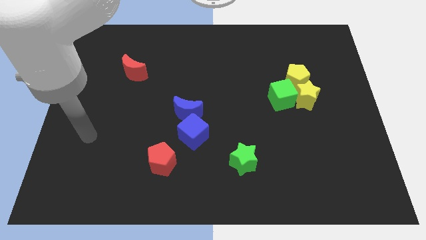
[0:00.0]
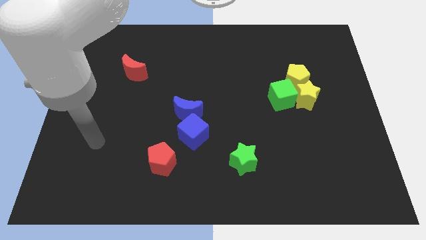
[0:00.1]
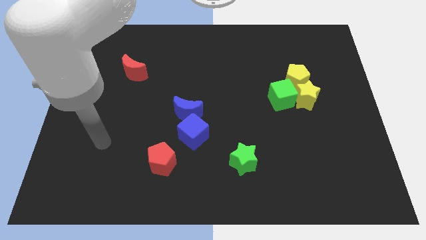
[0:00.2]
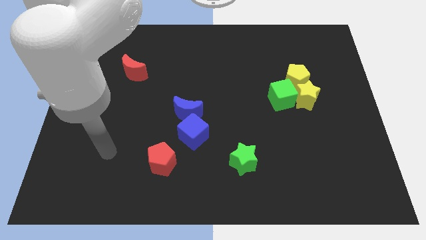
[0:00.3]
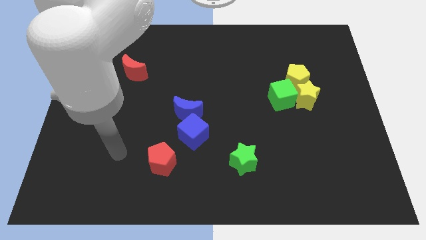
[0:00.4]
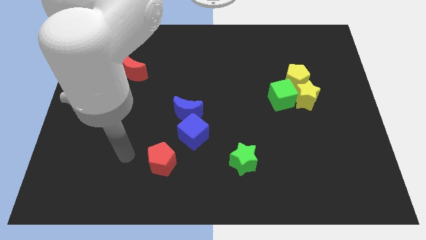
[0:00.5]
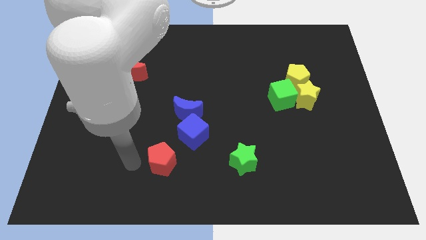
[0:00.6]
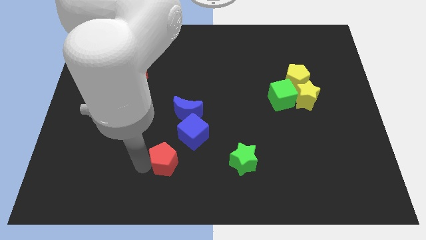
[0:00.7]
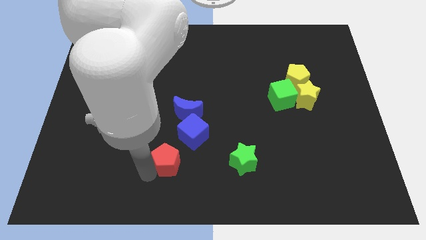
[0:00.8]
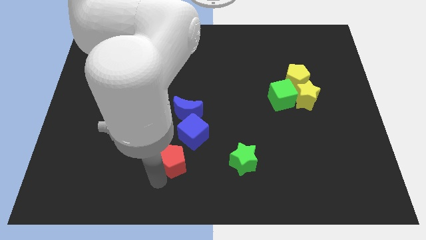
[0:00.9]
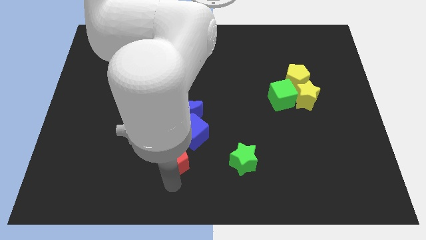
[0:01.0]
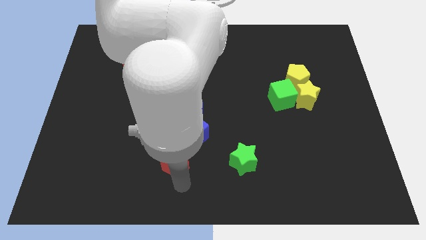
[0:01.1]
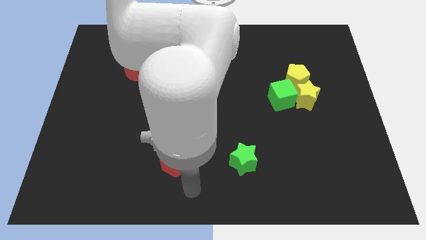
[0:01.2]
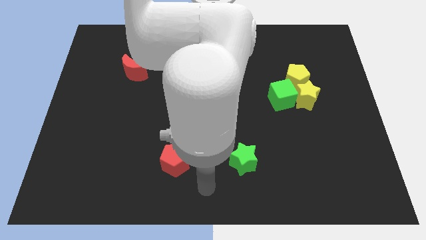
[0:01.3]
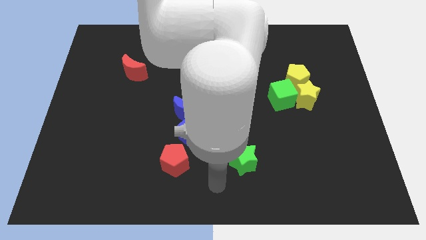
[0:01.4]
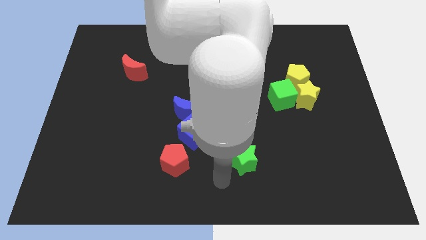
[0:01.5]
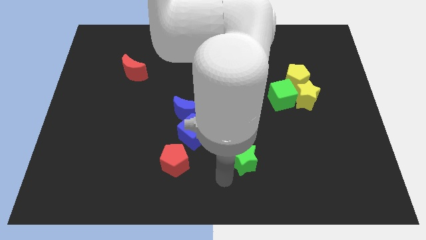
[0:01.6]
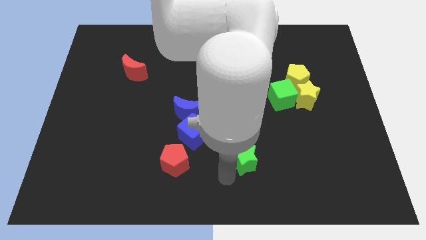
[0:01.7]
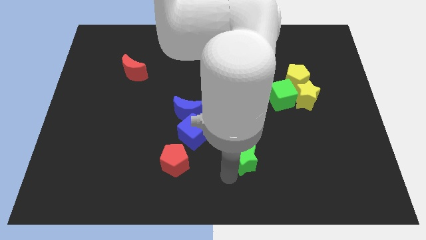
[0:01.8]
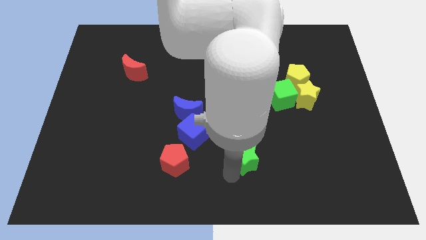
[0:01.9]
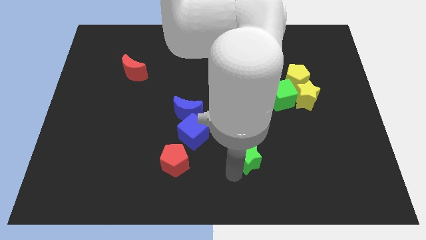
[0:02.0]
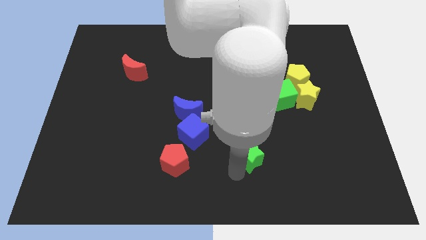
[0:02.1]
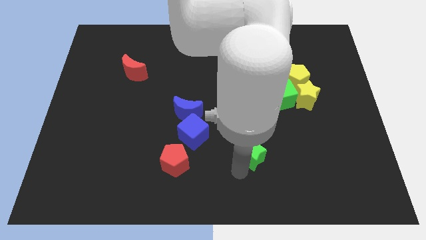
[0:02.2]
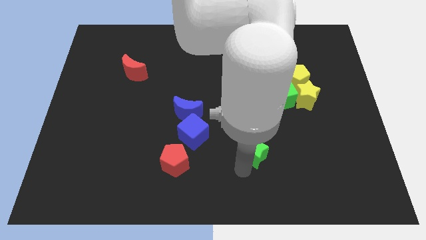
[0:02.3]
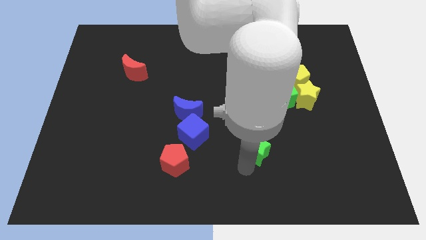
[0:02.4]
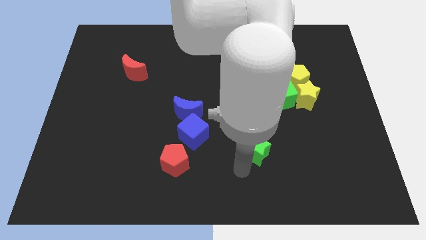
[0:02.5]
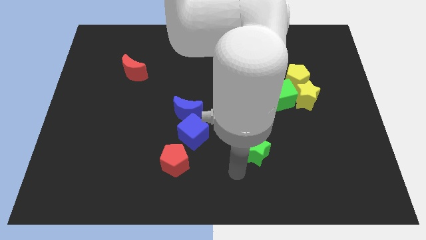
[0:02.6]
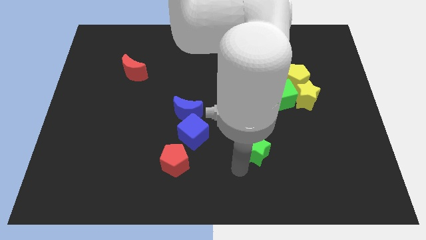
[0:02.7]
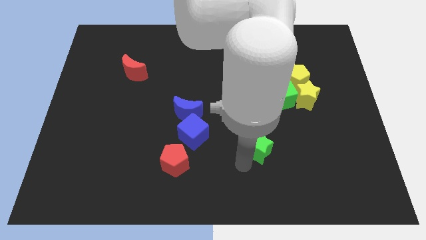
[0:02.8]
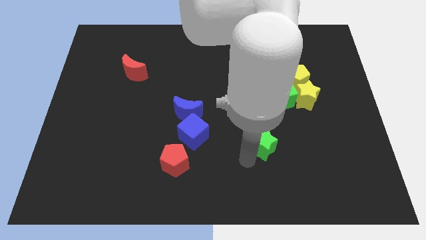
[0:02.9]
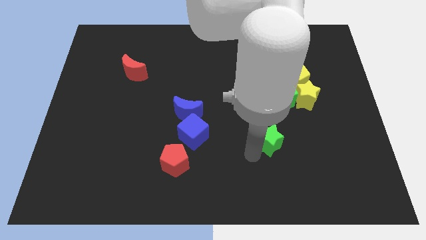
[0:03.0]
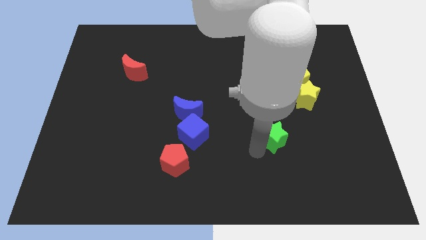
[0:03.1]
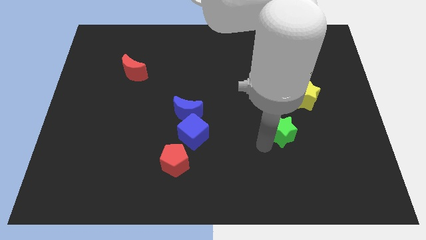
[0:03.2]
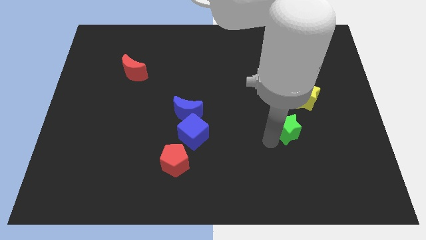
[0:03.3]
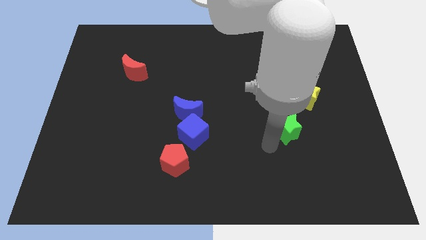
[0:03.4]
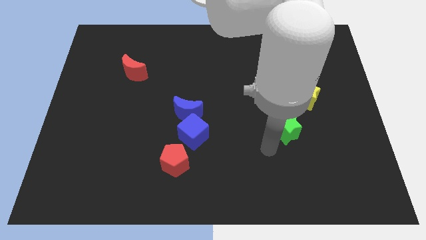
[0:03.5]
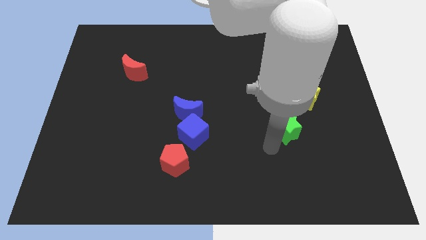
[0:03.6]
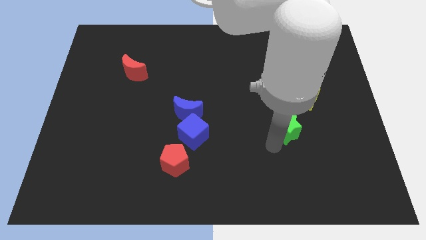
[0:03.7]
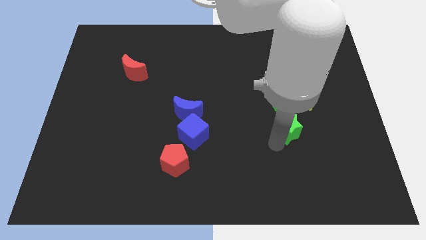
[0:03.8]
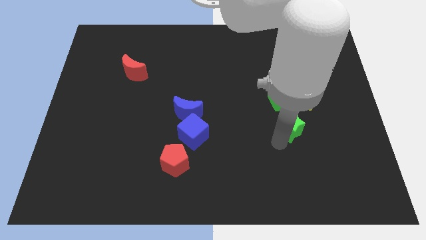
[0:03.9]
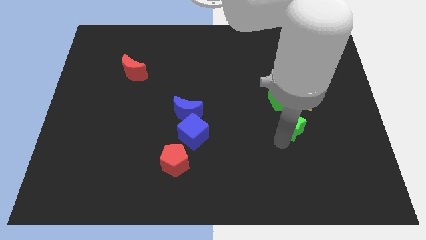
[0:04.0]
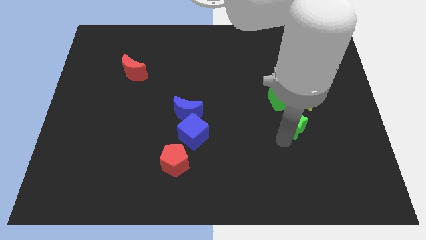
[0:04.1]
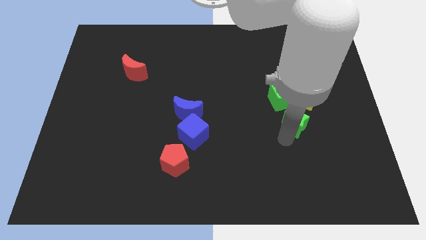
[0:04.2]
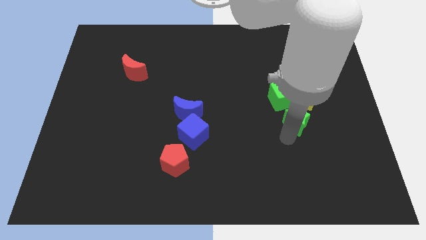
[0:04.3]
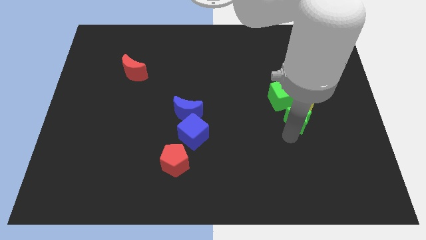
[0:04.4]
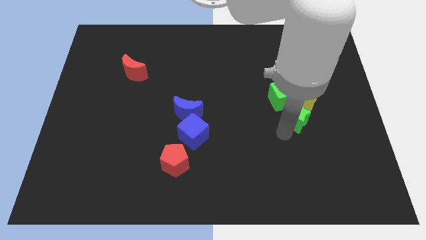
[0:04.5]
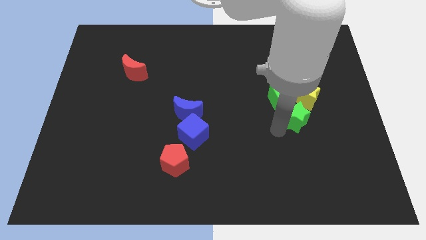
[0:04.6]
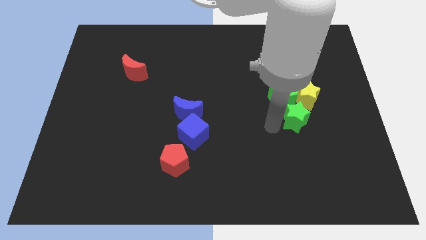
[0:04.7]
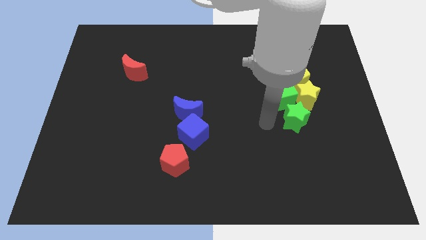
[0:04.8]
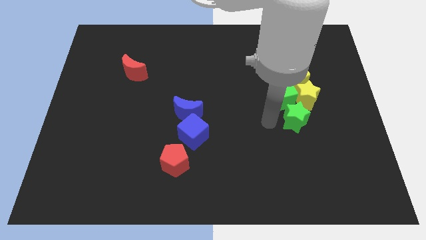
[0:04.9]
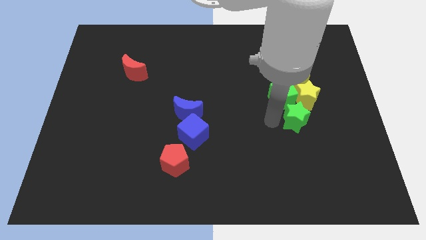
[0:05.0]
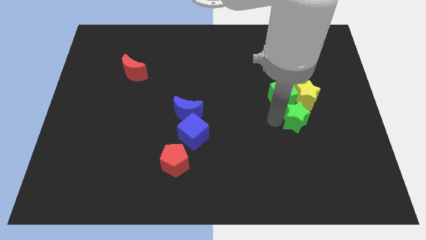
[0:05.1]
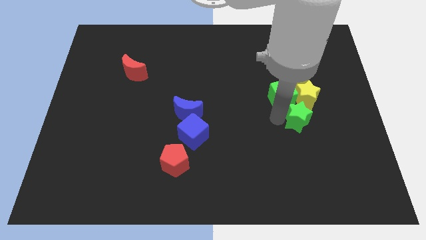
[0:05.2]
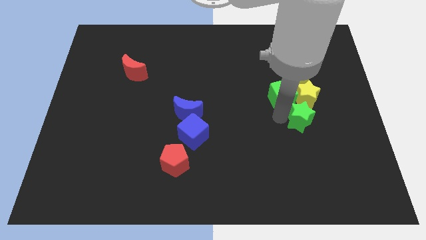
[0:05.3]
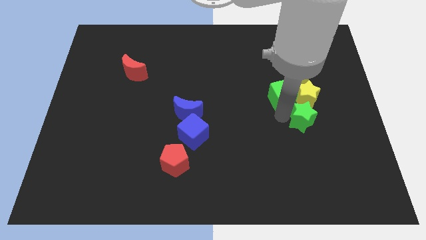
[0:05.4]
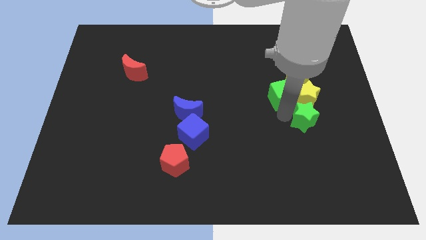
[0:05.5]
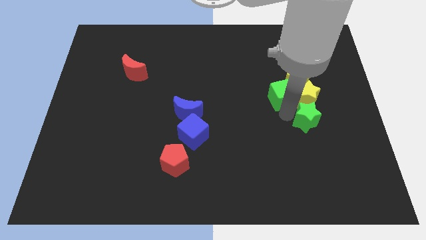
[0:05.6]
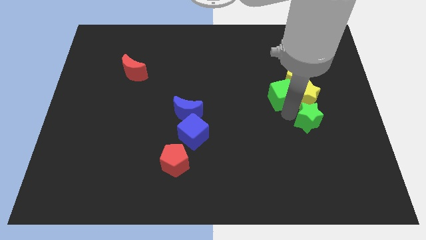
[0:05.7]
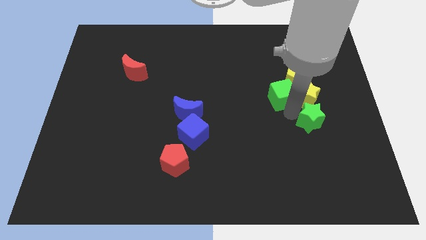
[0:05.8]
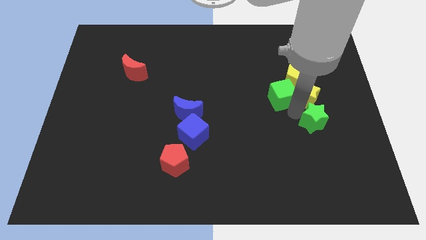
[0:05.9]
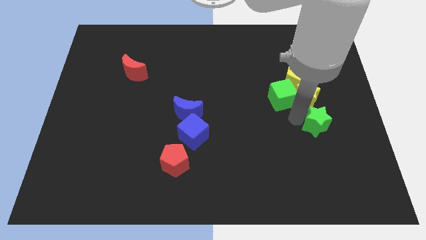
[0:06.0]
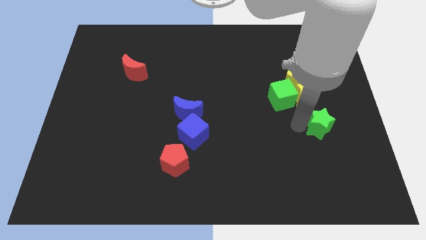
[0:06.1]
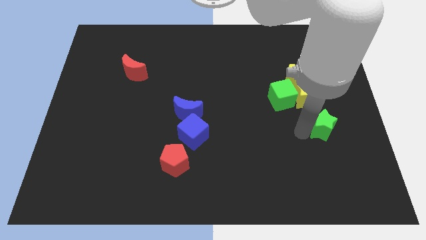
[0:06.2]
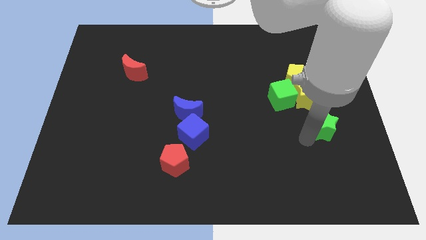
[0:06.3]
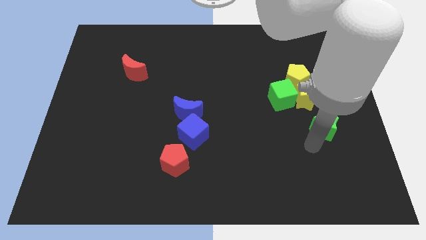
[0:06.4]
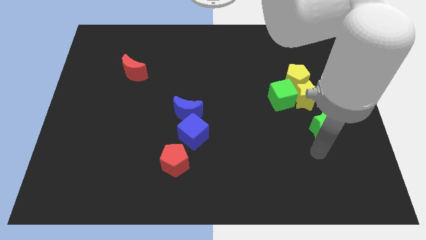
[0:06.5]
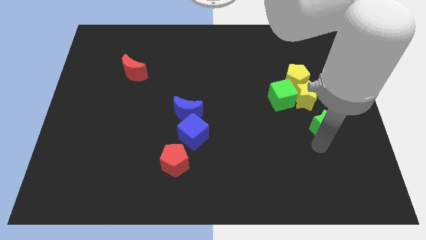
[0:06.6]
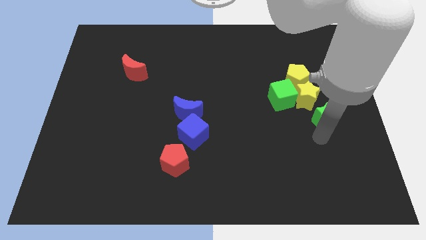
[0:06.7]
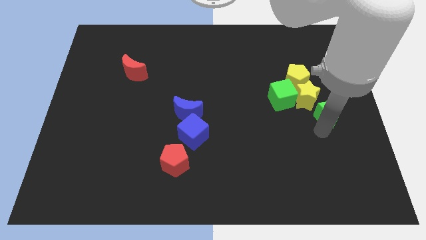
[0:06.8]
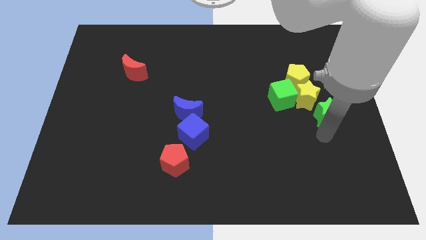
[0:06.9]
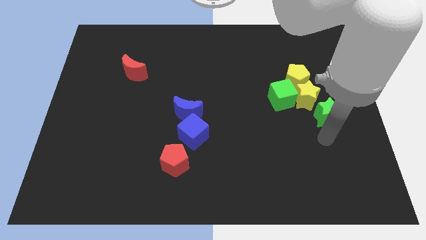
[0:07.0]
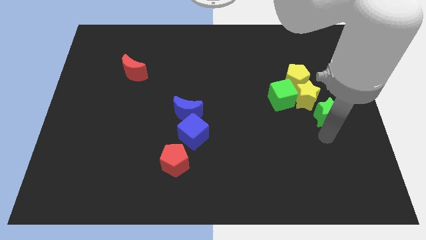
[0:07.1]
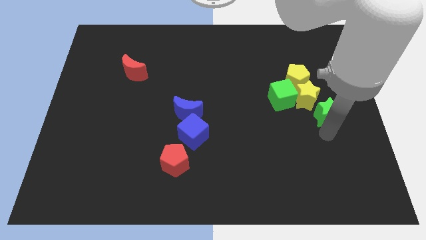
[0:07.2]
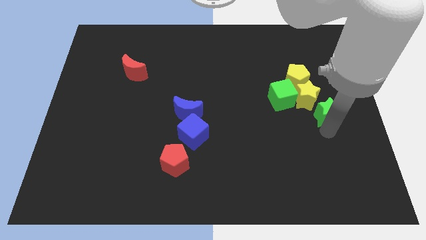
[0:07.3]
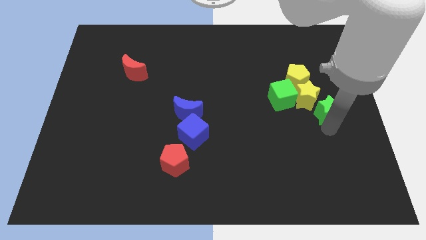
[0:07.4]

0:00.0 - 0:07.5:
put the green star to the right side of the green cube
